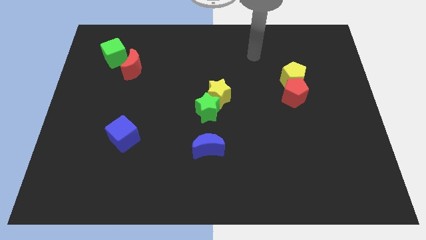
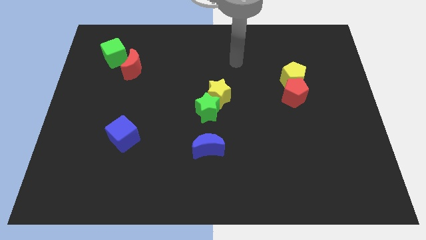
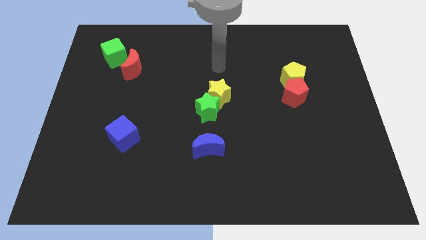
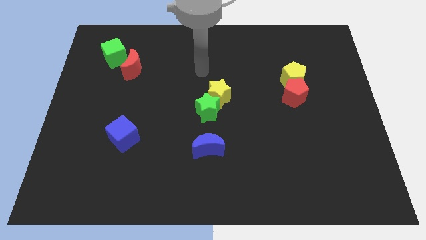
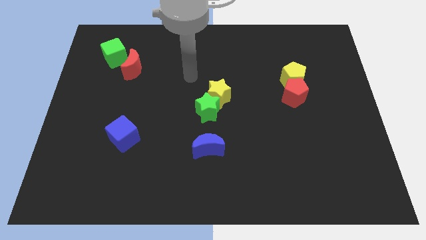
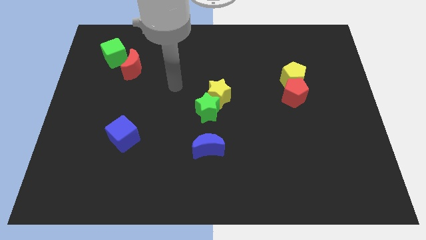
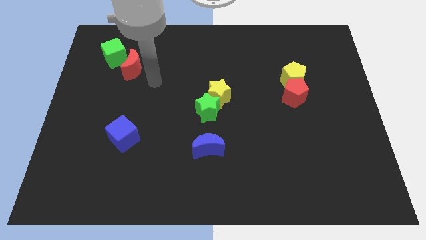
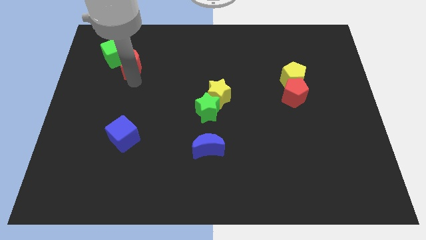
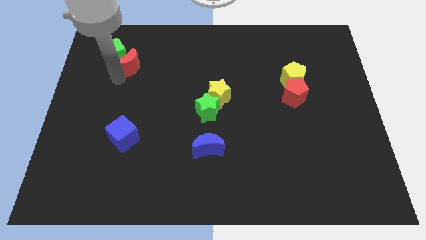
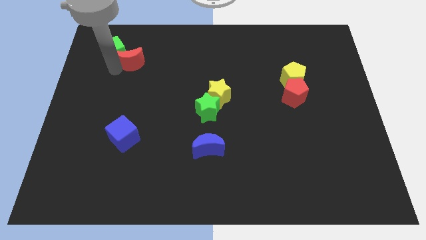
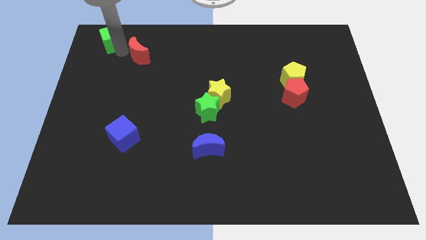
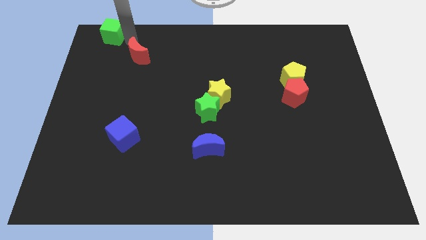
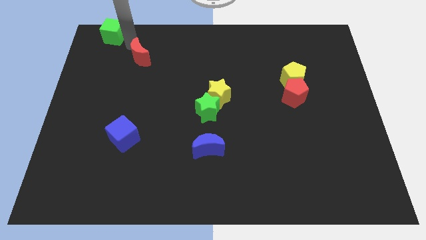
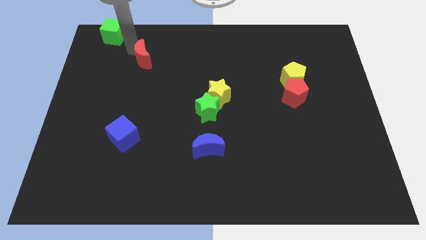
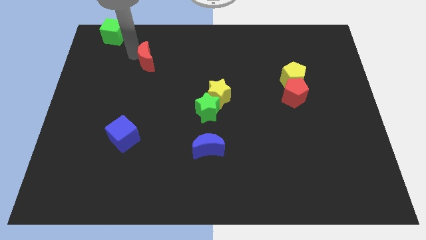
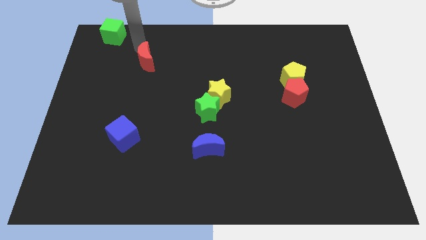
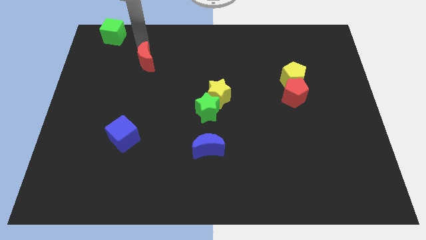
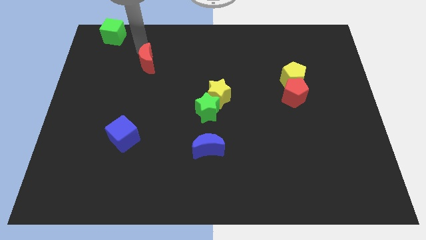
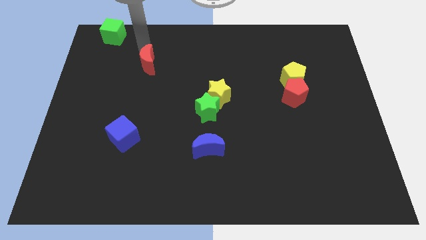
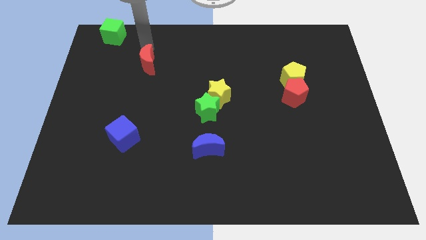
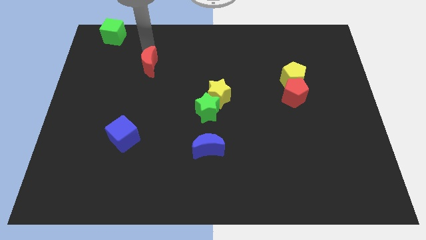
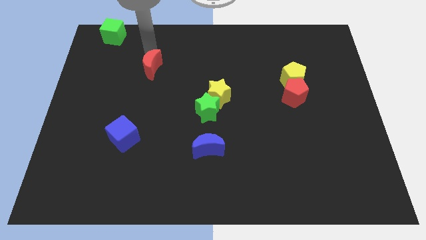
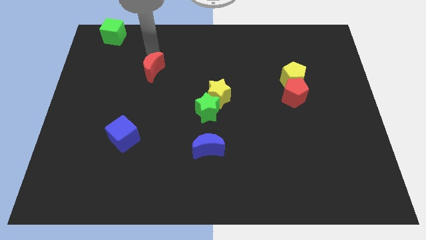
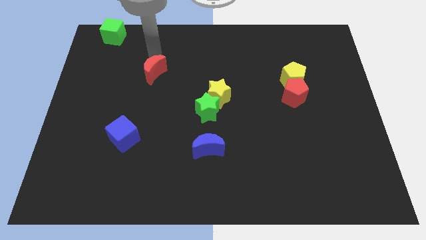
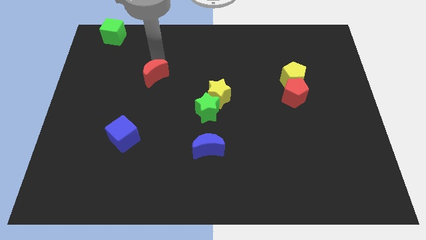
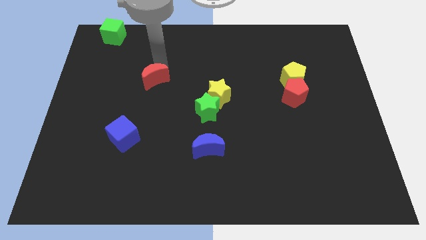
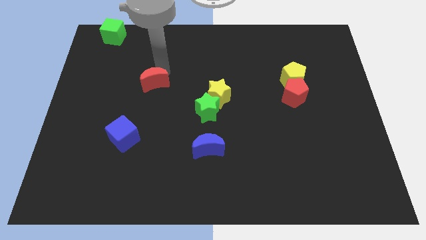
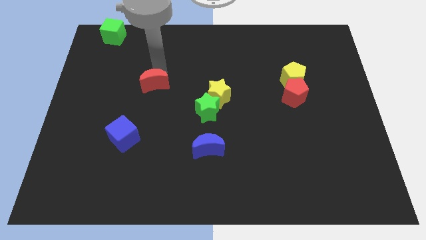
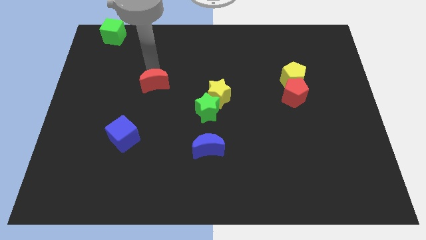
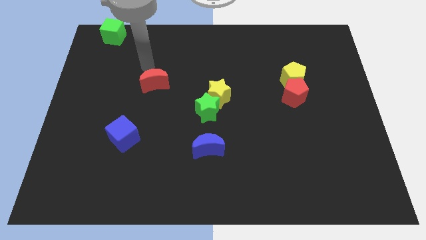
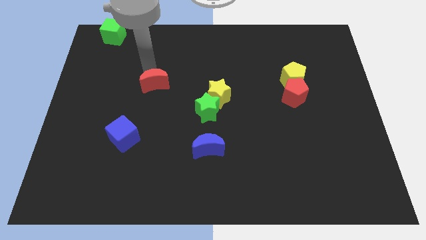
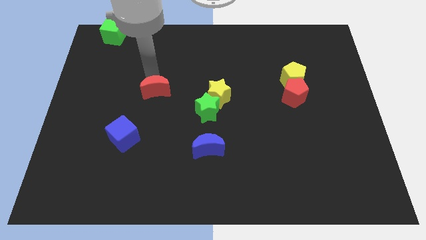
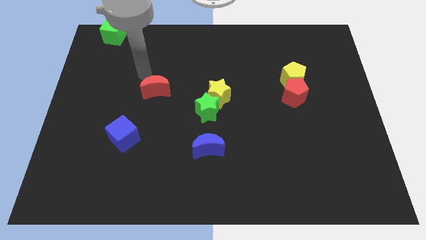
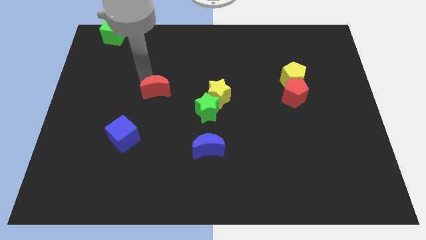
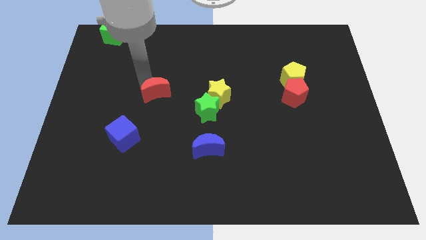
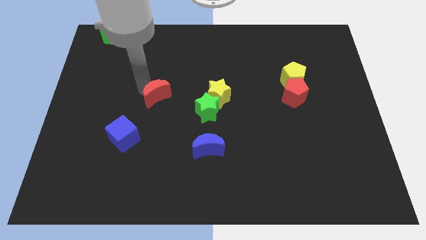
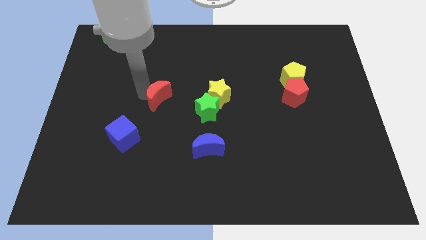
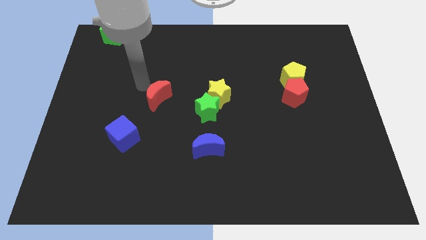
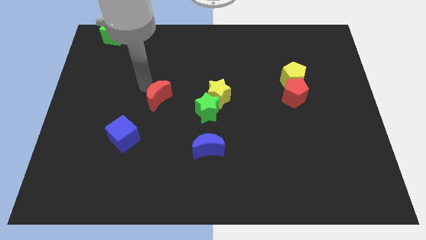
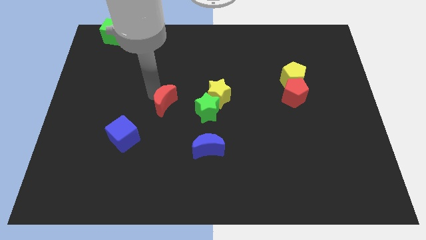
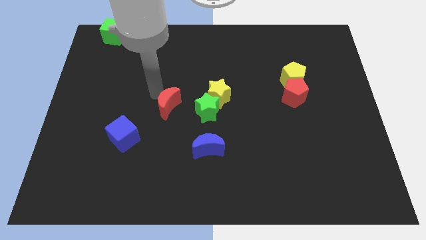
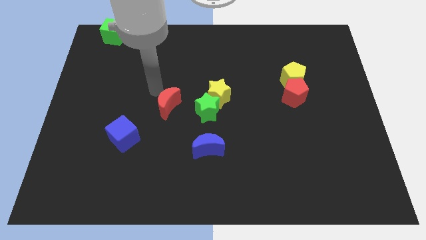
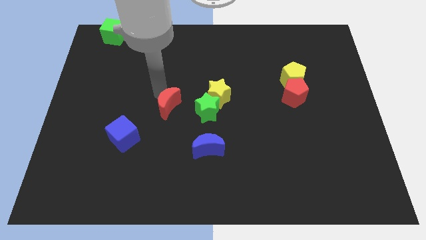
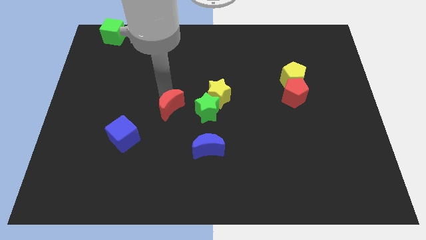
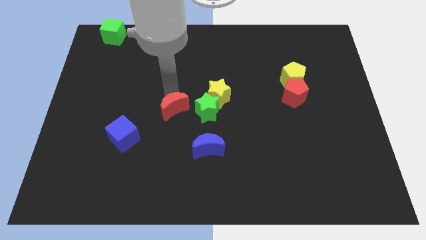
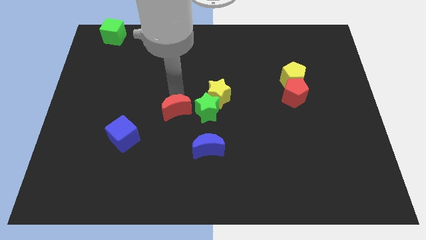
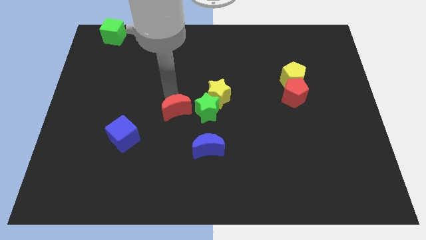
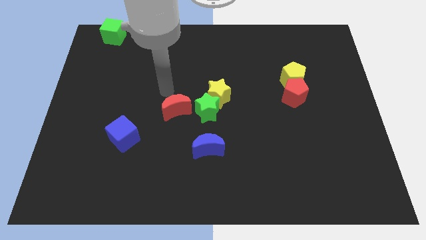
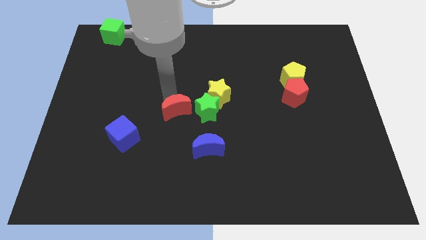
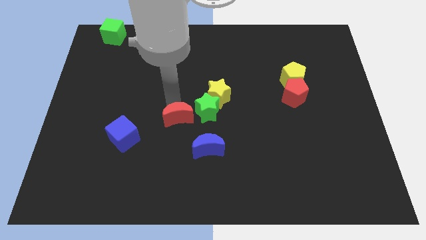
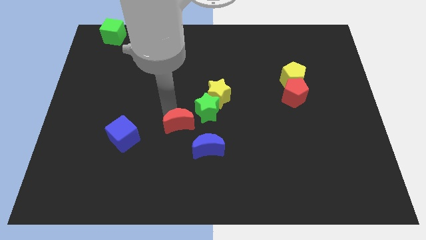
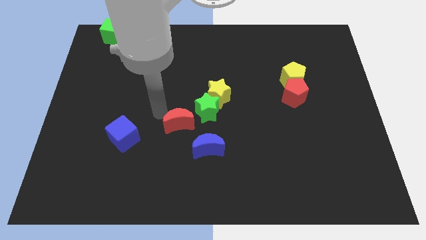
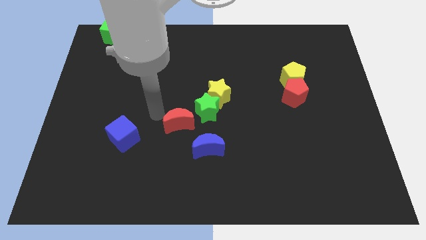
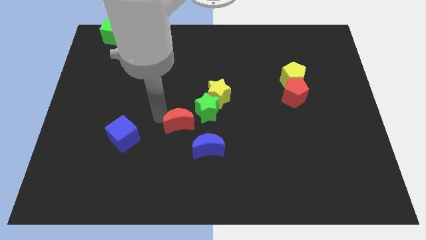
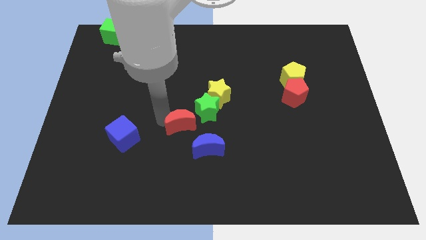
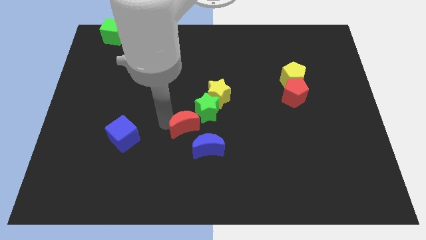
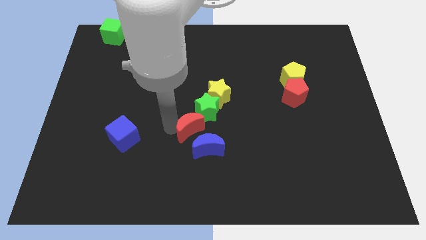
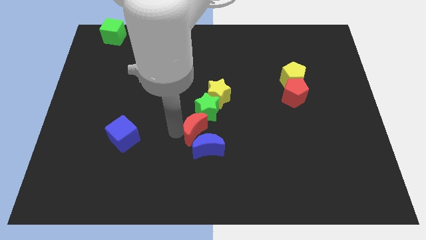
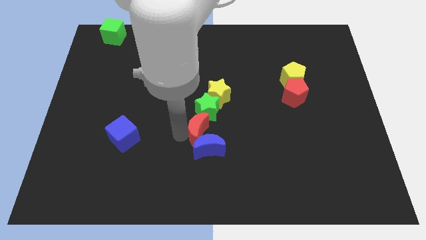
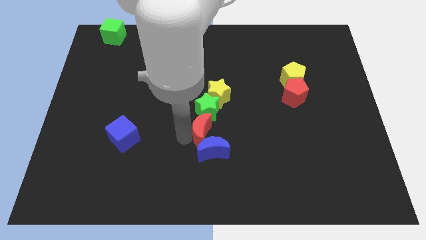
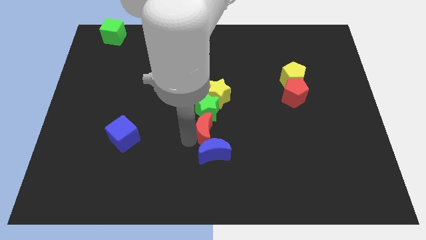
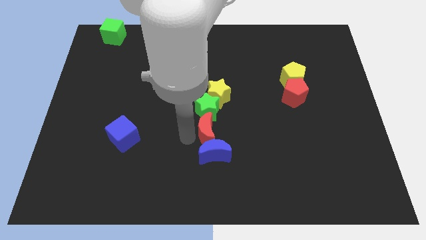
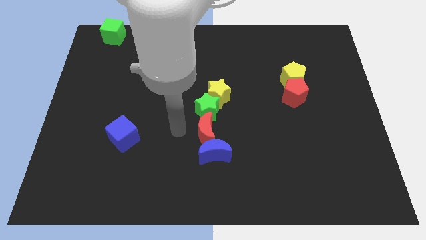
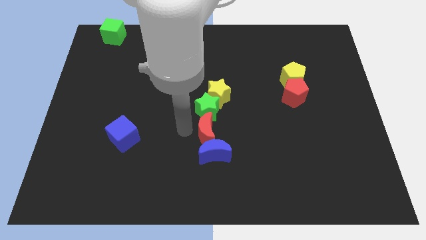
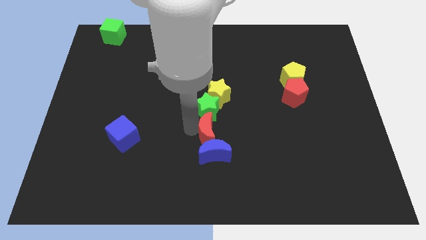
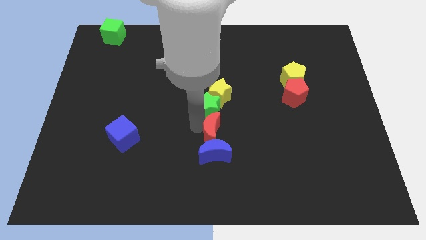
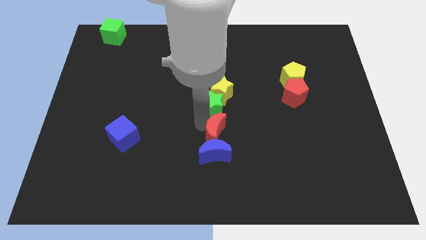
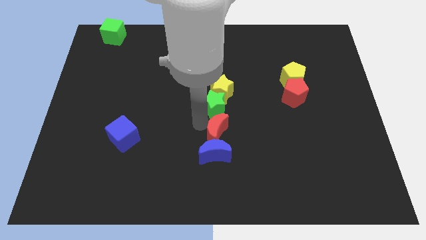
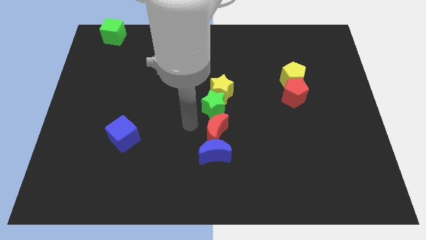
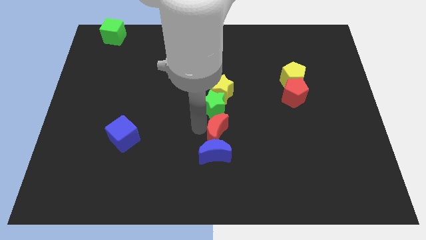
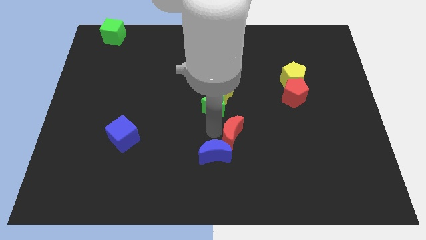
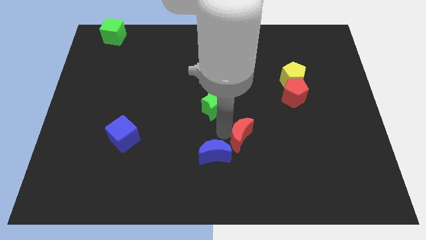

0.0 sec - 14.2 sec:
move the red moon right of the blue moon
